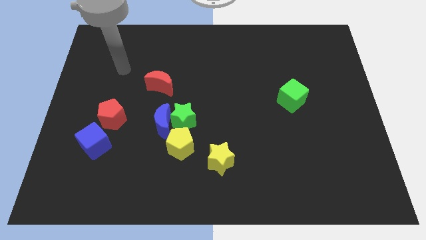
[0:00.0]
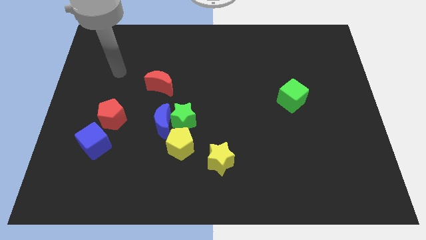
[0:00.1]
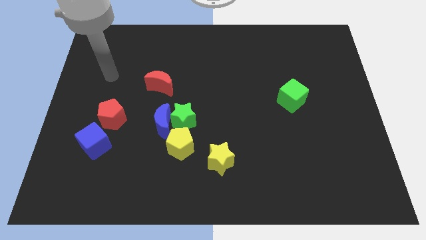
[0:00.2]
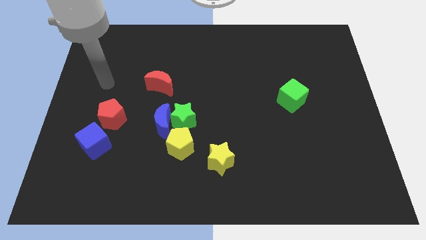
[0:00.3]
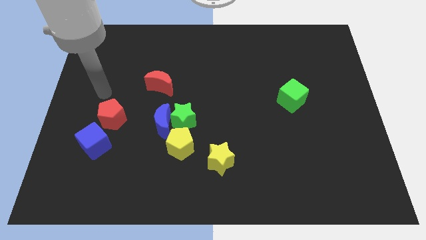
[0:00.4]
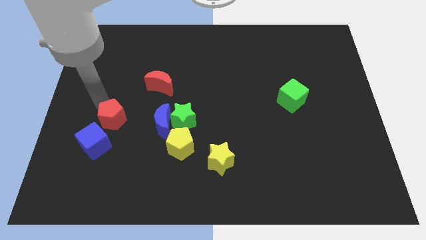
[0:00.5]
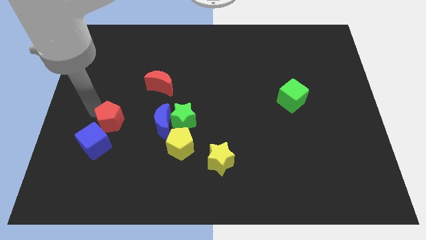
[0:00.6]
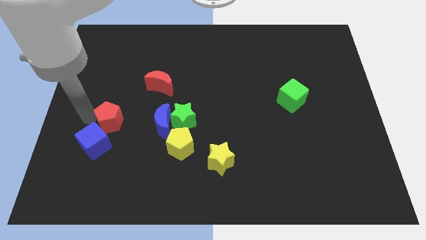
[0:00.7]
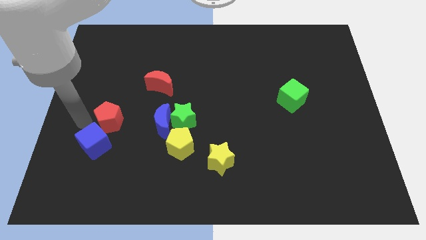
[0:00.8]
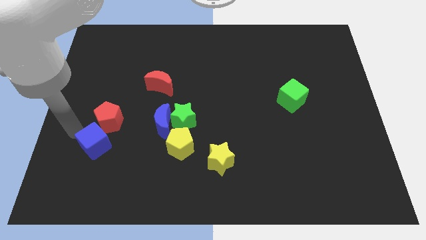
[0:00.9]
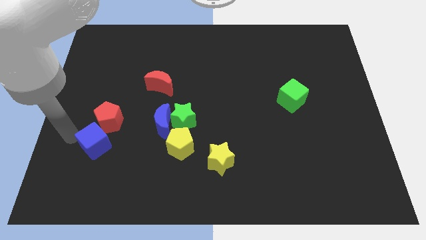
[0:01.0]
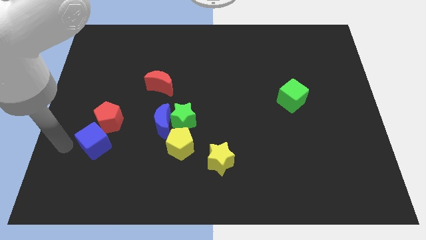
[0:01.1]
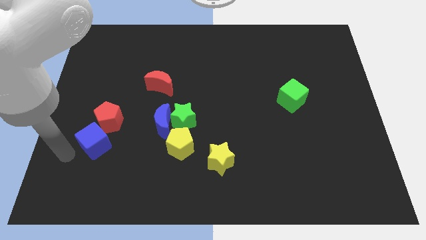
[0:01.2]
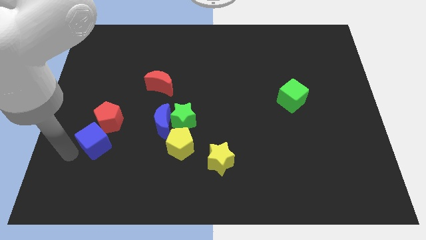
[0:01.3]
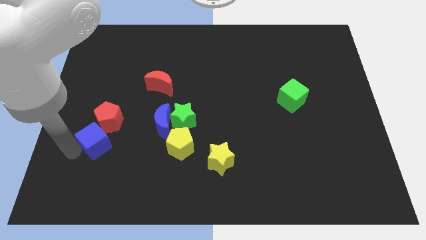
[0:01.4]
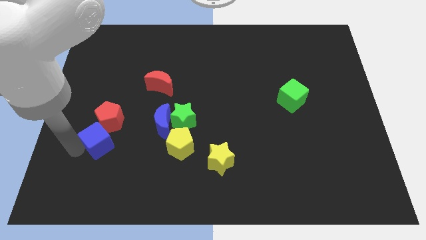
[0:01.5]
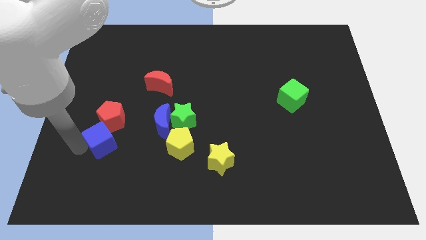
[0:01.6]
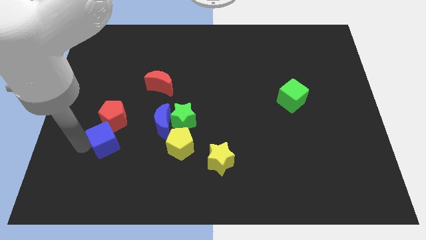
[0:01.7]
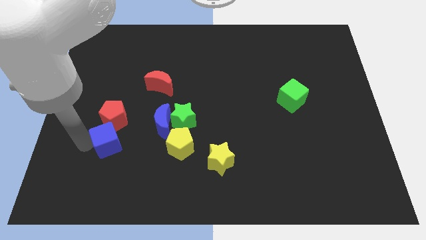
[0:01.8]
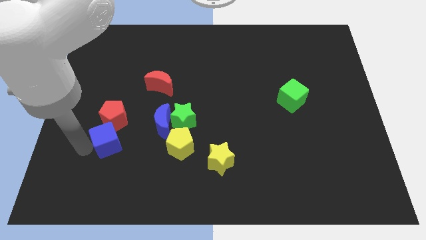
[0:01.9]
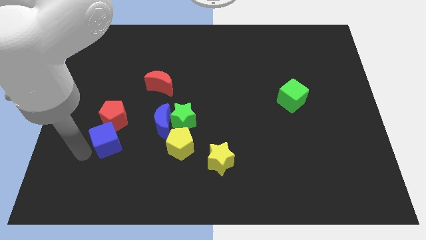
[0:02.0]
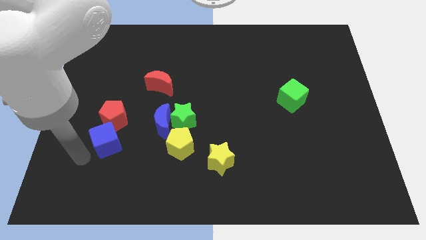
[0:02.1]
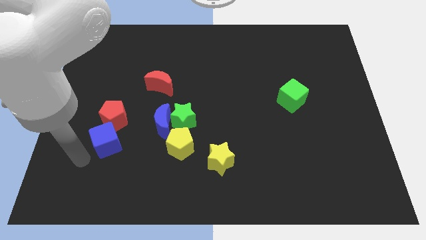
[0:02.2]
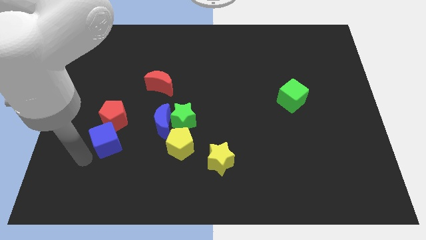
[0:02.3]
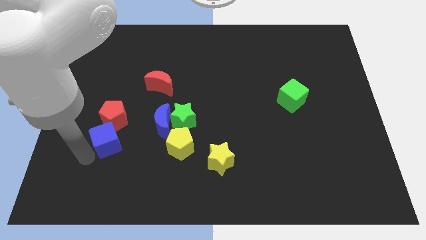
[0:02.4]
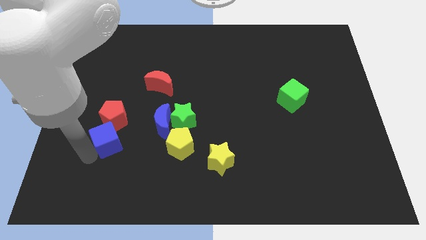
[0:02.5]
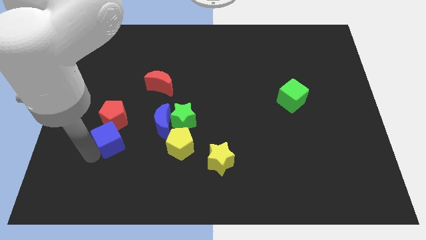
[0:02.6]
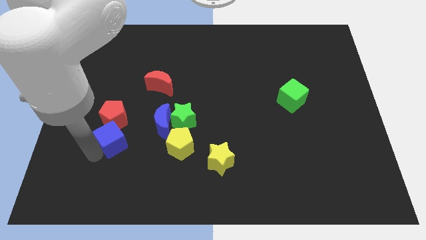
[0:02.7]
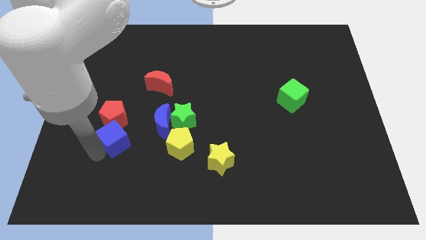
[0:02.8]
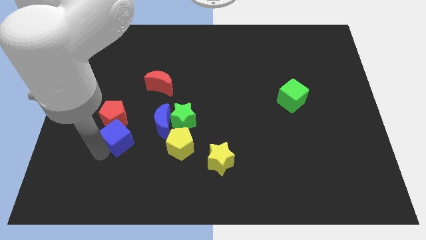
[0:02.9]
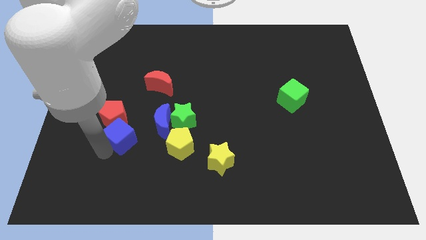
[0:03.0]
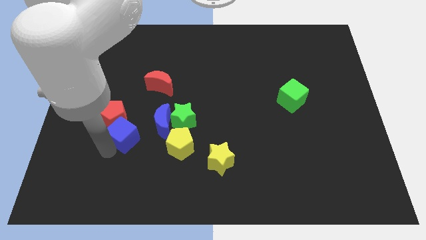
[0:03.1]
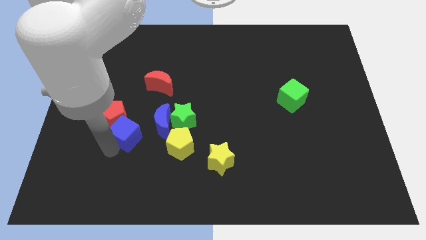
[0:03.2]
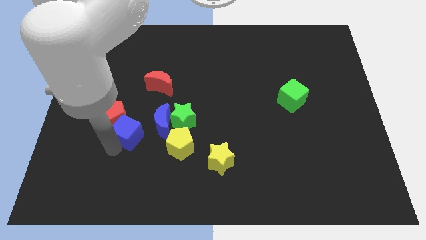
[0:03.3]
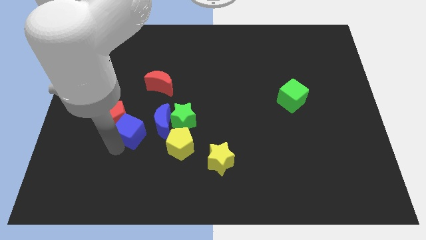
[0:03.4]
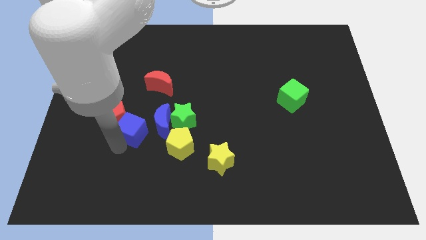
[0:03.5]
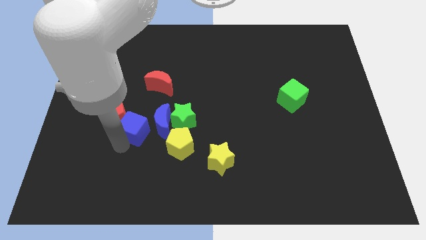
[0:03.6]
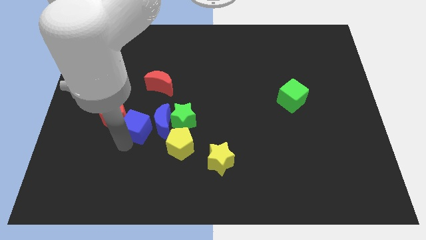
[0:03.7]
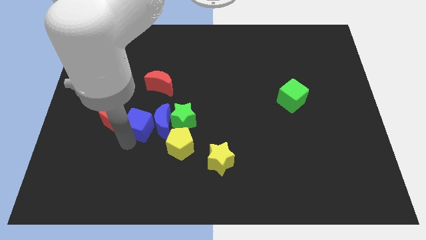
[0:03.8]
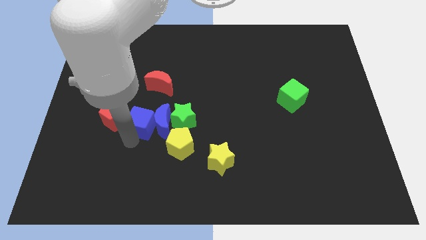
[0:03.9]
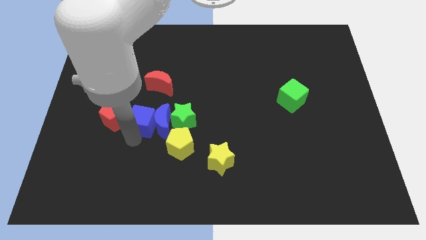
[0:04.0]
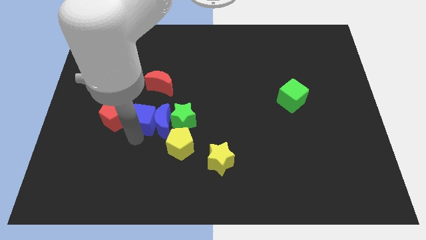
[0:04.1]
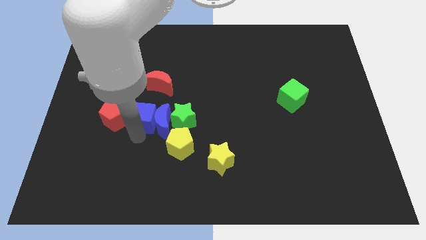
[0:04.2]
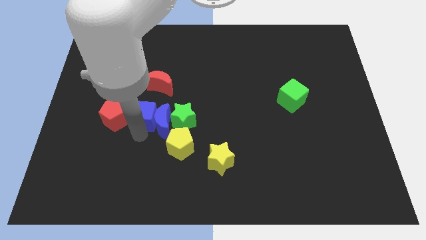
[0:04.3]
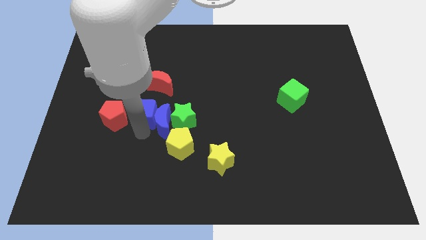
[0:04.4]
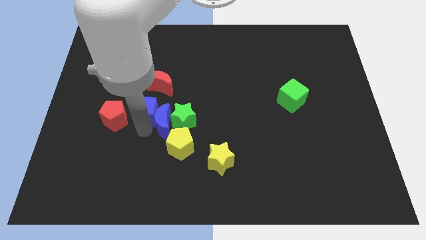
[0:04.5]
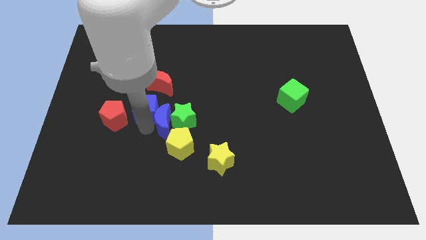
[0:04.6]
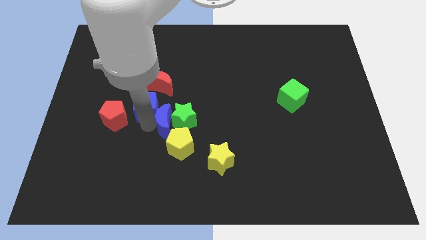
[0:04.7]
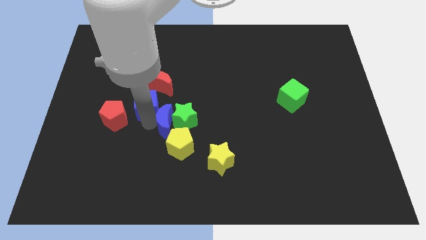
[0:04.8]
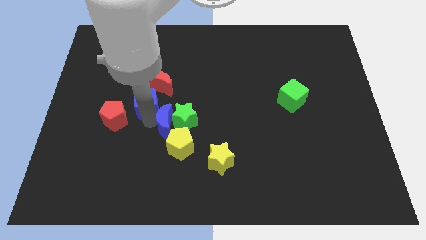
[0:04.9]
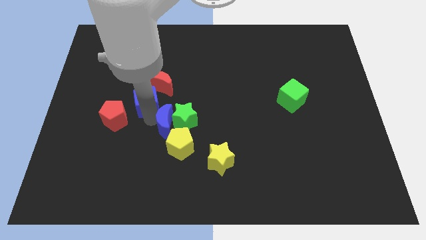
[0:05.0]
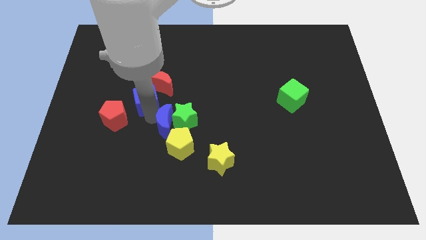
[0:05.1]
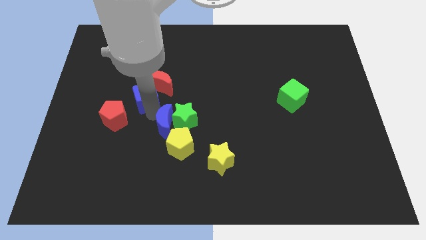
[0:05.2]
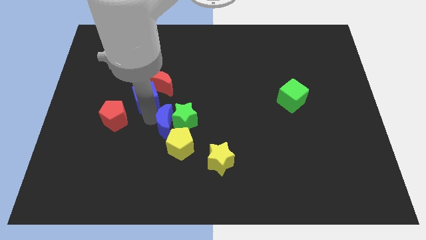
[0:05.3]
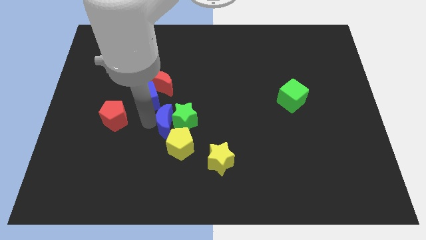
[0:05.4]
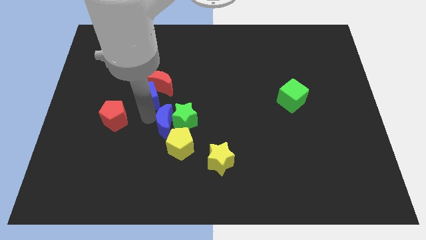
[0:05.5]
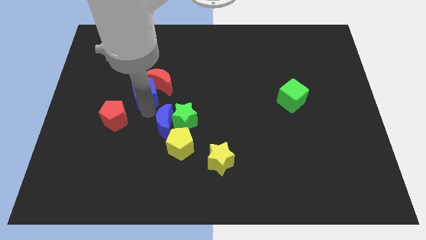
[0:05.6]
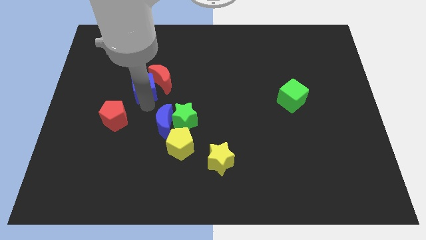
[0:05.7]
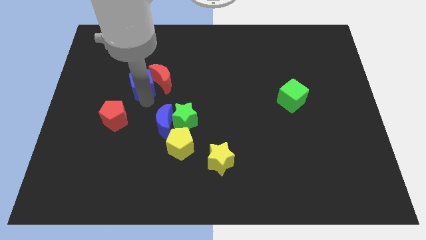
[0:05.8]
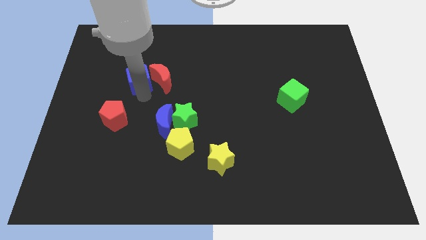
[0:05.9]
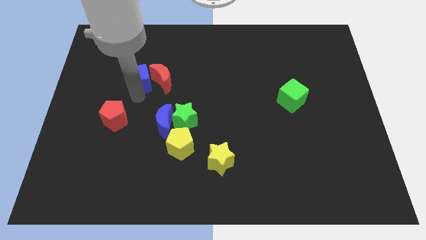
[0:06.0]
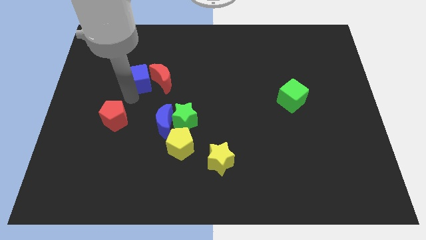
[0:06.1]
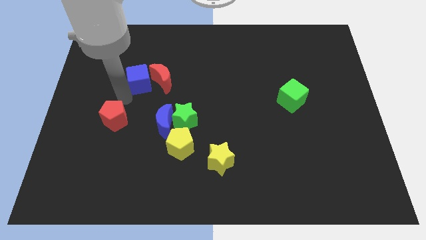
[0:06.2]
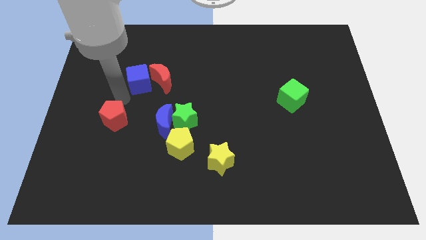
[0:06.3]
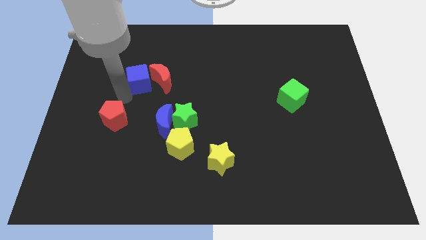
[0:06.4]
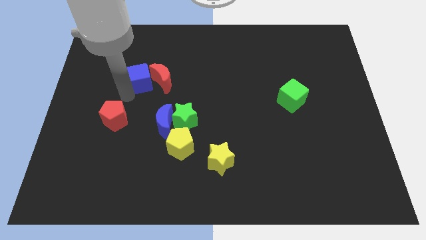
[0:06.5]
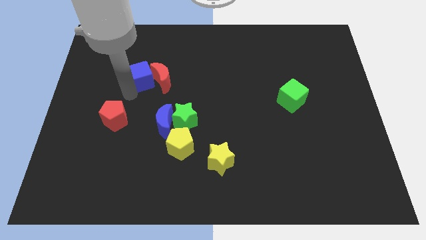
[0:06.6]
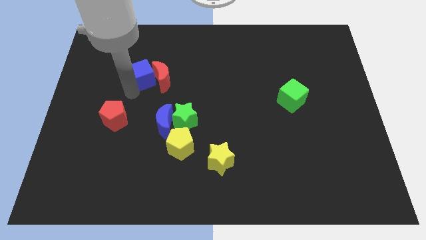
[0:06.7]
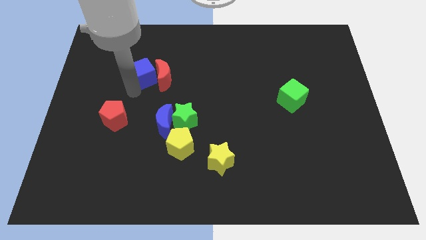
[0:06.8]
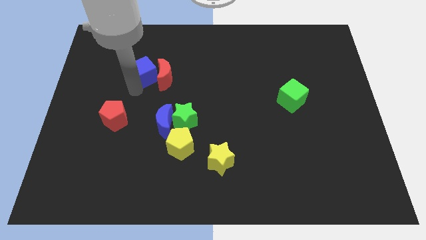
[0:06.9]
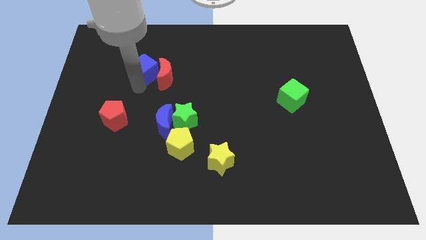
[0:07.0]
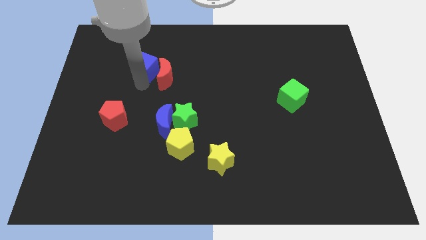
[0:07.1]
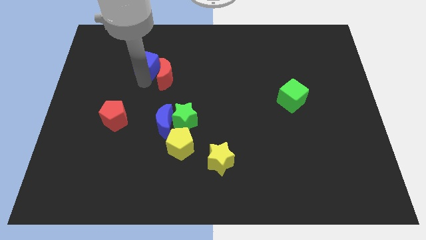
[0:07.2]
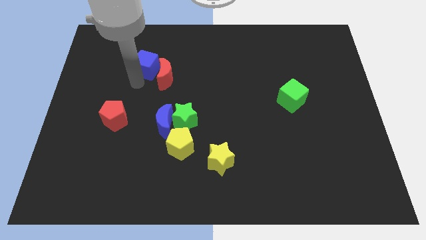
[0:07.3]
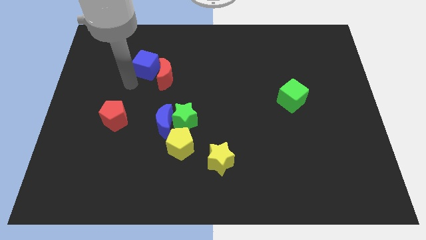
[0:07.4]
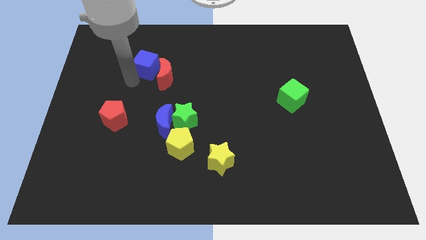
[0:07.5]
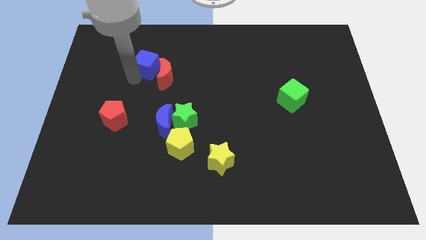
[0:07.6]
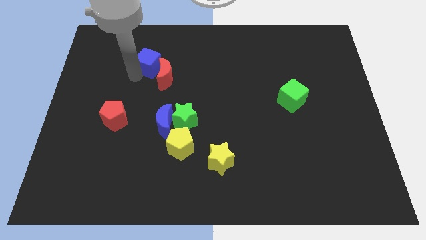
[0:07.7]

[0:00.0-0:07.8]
push the blue cube above the red moon

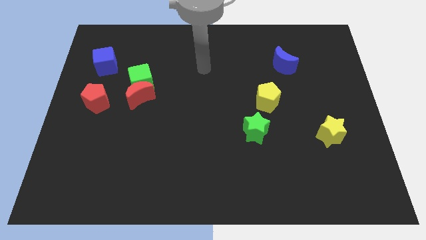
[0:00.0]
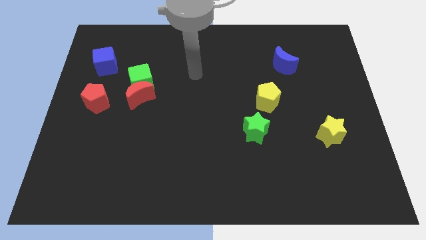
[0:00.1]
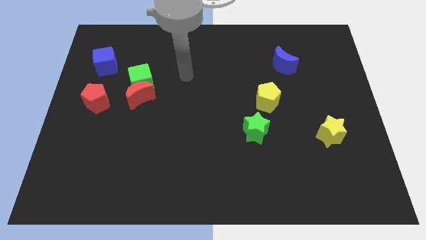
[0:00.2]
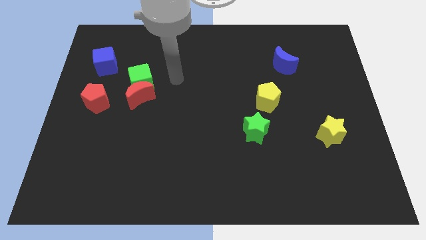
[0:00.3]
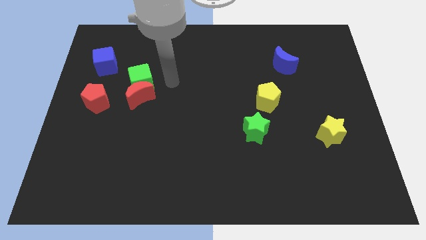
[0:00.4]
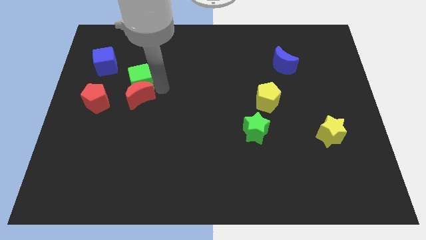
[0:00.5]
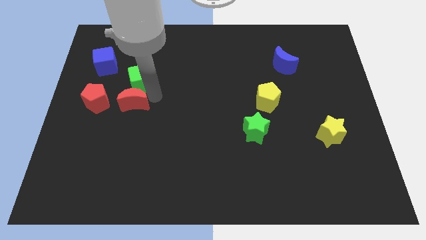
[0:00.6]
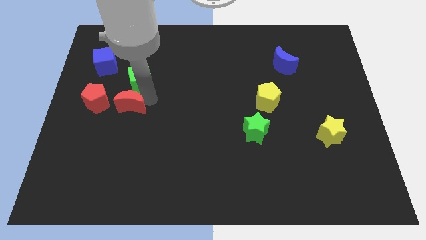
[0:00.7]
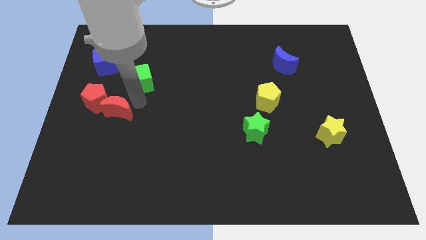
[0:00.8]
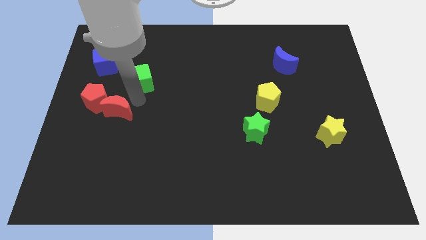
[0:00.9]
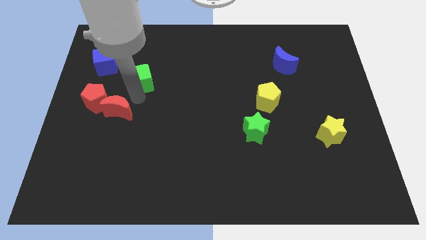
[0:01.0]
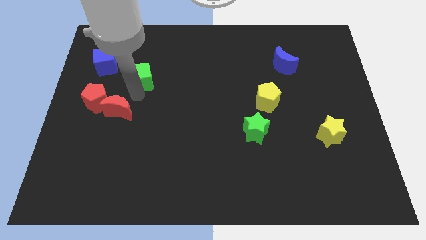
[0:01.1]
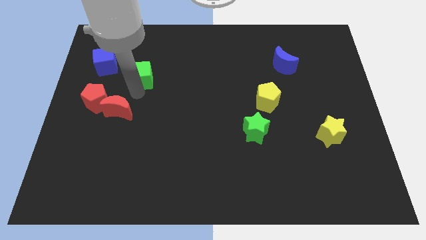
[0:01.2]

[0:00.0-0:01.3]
slide the green cube to the right side of the blue cube
